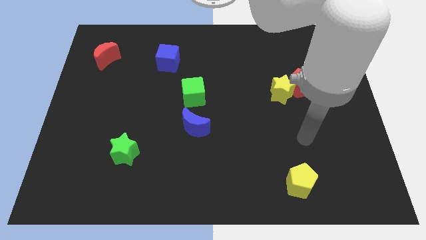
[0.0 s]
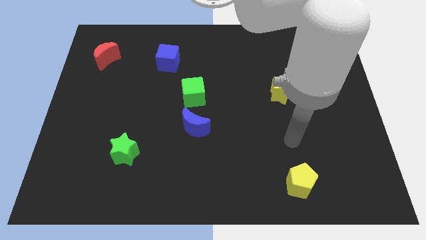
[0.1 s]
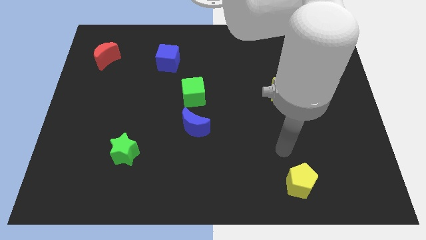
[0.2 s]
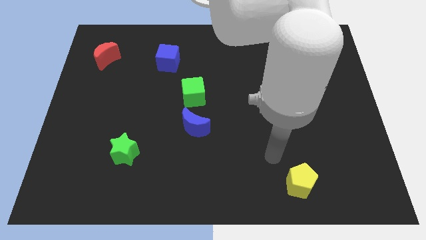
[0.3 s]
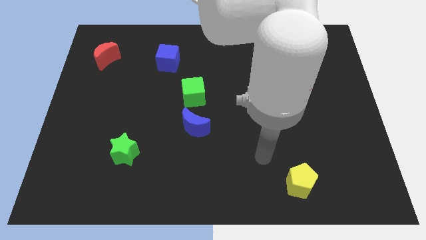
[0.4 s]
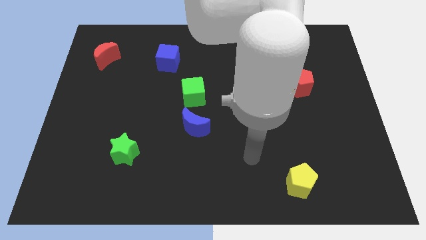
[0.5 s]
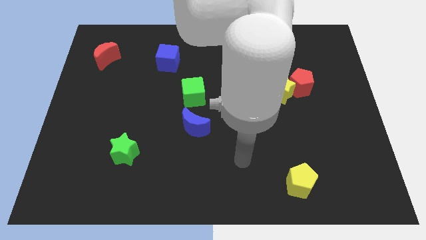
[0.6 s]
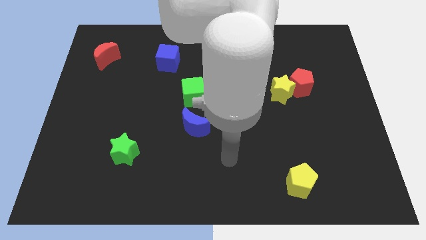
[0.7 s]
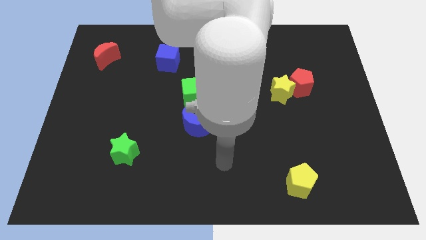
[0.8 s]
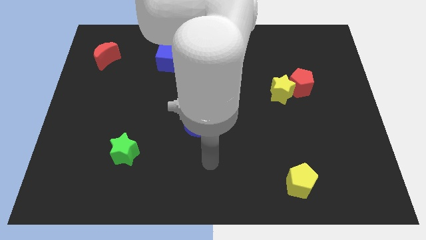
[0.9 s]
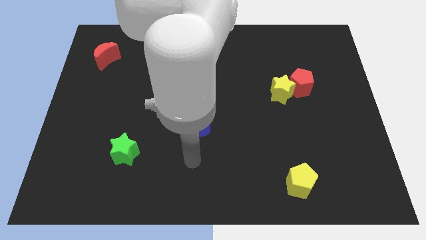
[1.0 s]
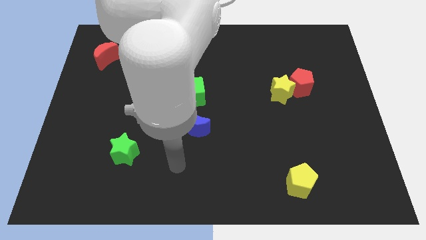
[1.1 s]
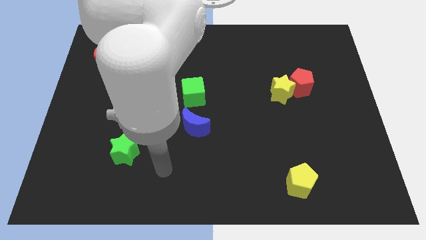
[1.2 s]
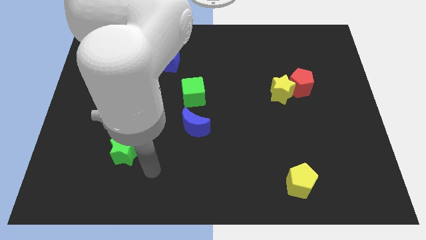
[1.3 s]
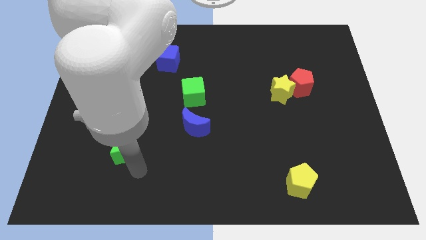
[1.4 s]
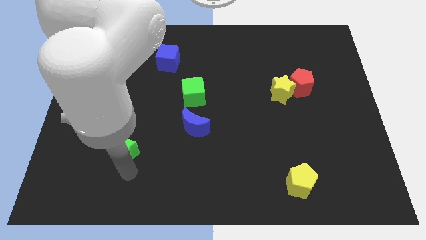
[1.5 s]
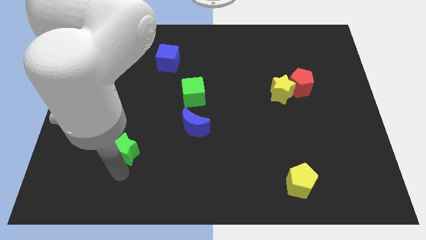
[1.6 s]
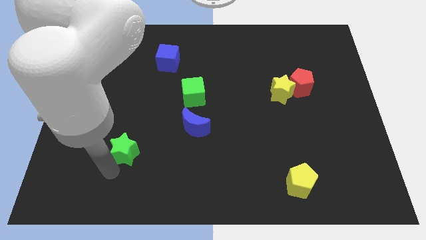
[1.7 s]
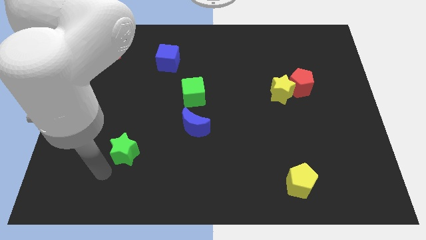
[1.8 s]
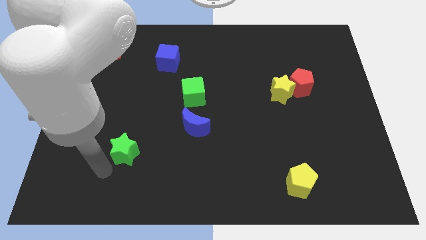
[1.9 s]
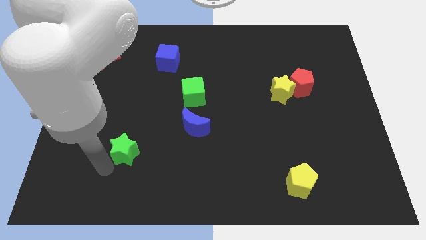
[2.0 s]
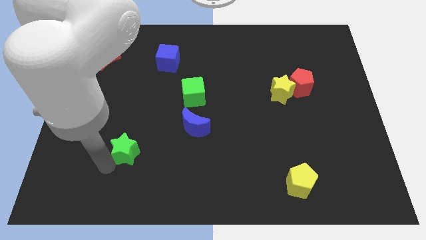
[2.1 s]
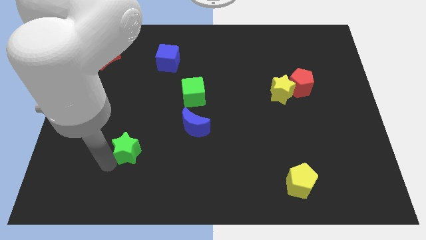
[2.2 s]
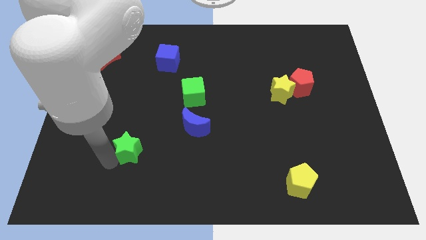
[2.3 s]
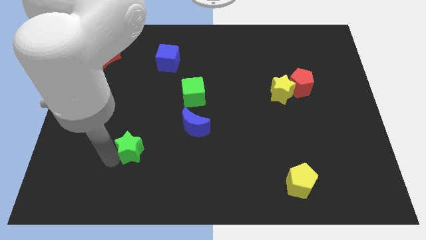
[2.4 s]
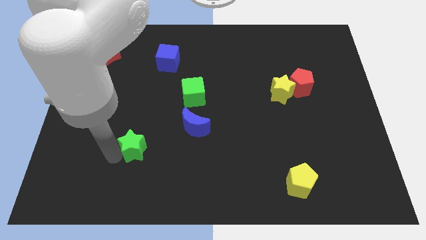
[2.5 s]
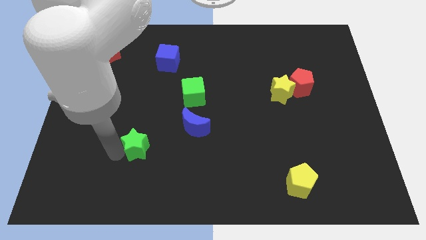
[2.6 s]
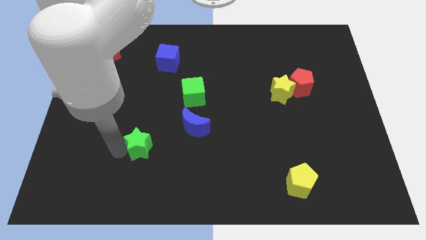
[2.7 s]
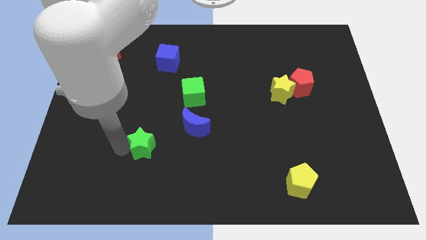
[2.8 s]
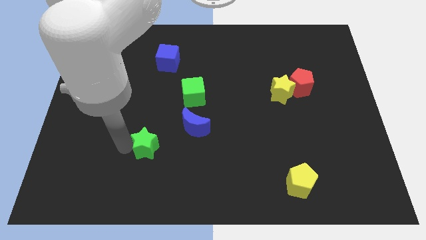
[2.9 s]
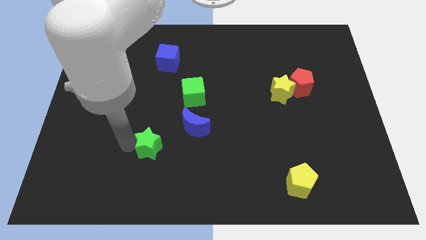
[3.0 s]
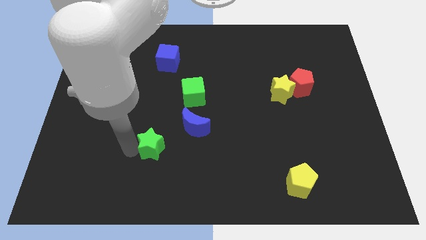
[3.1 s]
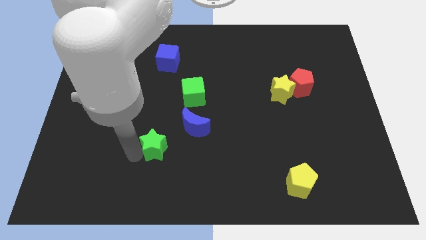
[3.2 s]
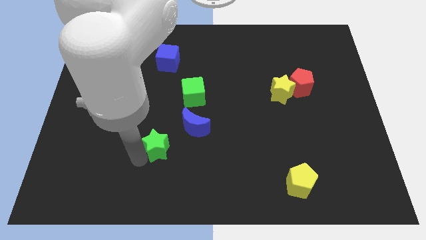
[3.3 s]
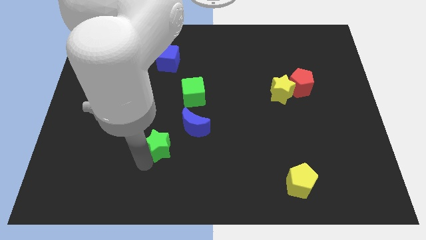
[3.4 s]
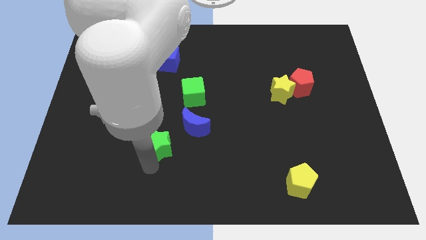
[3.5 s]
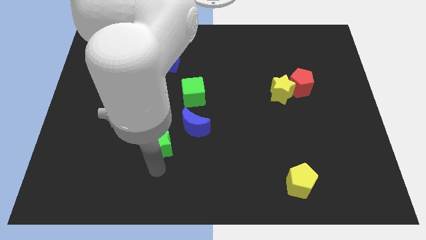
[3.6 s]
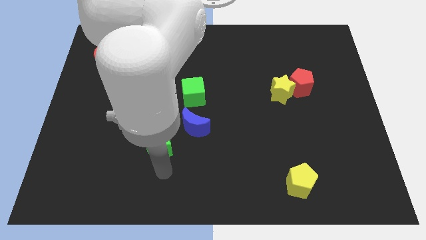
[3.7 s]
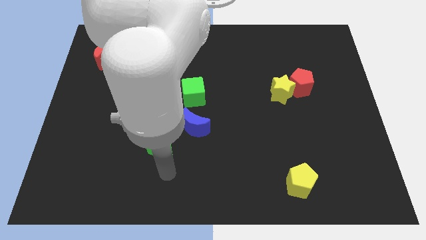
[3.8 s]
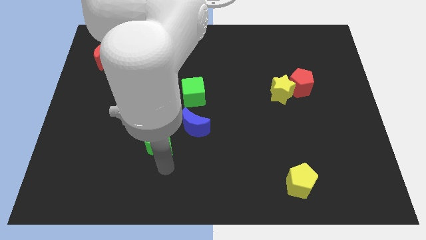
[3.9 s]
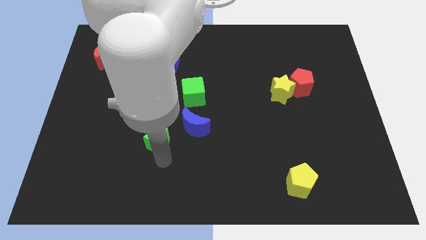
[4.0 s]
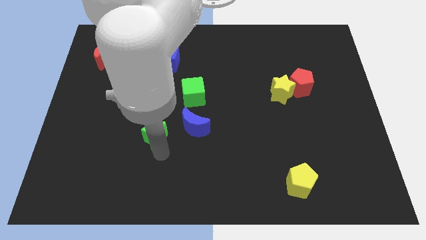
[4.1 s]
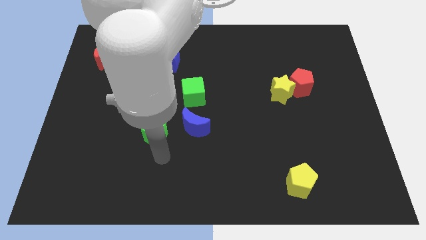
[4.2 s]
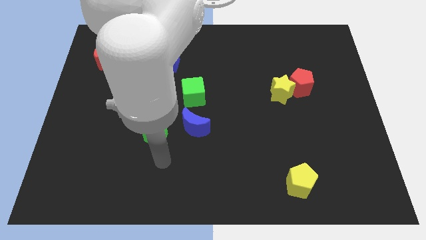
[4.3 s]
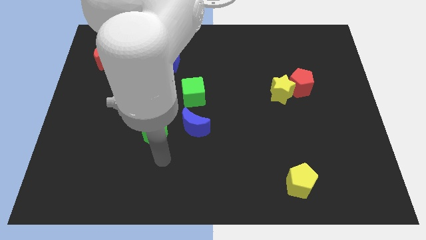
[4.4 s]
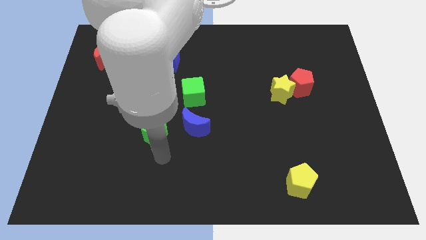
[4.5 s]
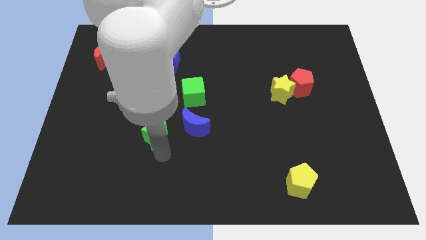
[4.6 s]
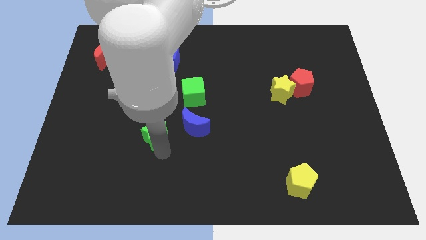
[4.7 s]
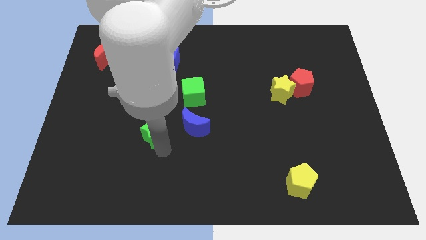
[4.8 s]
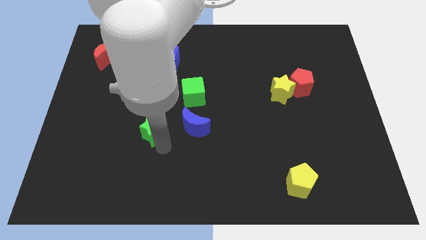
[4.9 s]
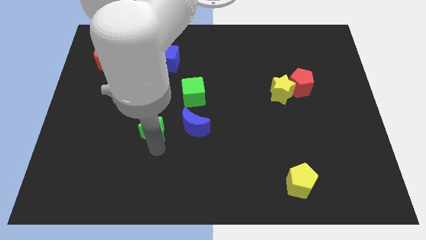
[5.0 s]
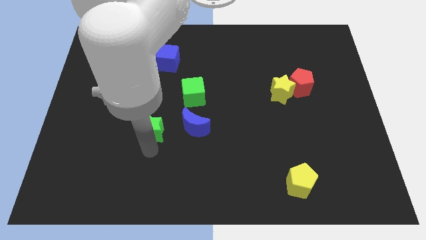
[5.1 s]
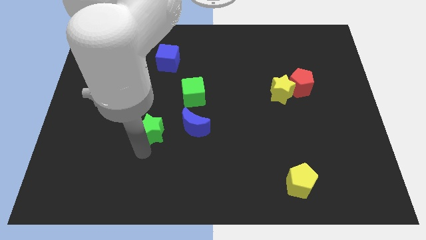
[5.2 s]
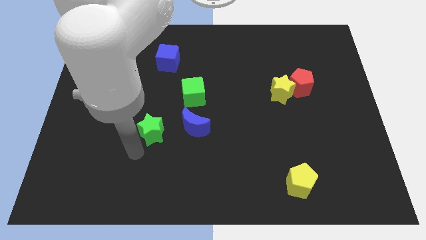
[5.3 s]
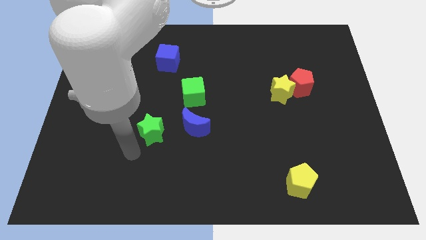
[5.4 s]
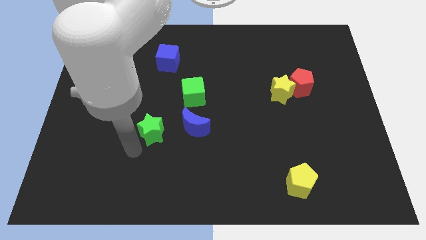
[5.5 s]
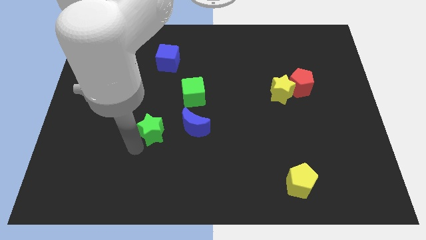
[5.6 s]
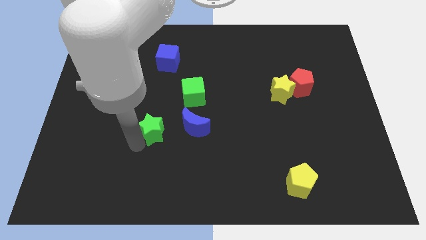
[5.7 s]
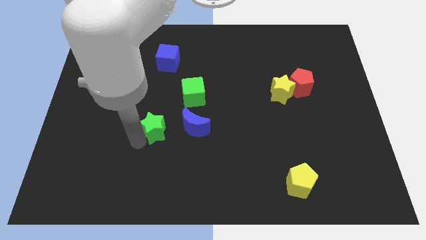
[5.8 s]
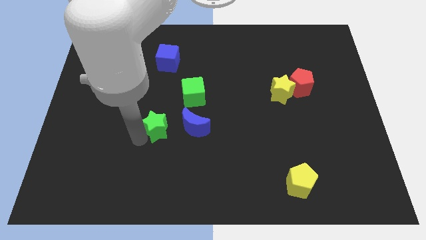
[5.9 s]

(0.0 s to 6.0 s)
put the green star diagonally down and to the left of the green cube

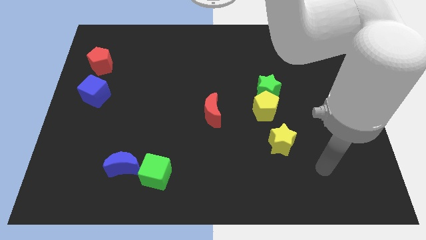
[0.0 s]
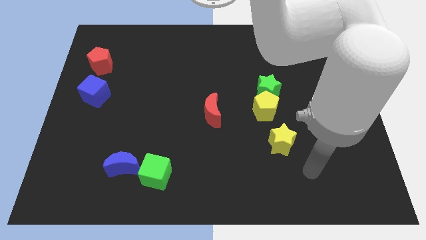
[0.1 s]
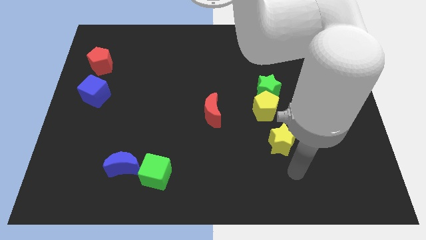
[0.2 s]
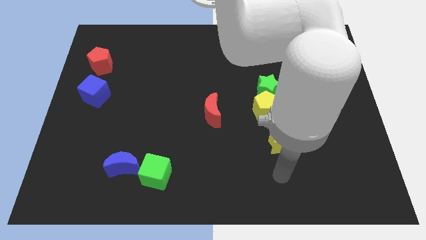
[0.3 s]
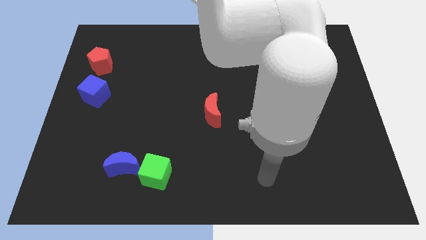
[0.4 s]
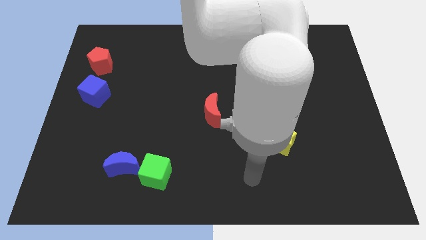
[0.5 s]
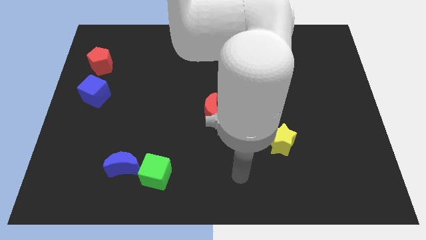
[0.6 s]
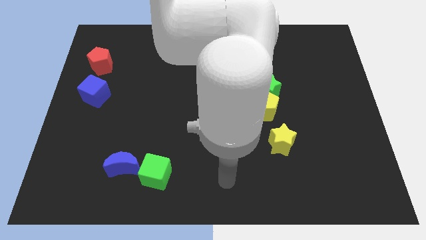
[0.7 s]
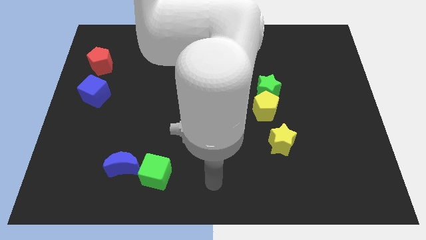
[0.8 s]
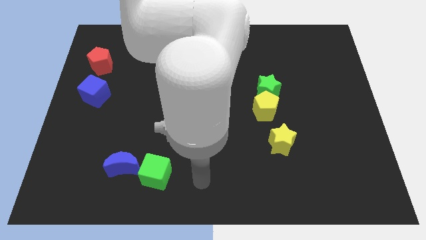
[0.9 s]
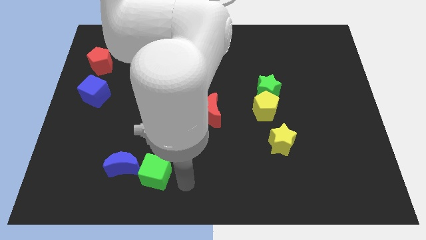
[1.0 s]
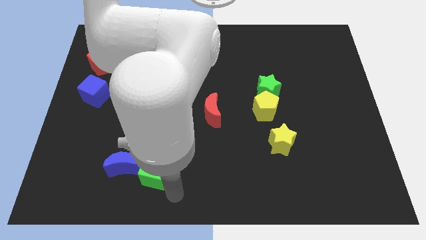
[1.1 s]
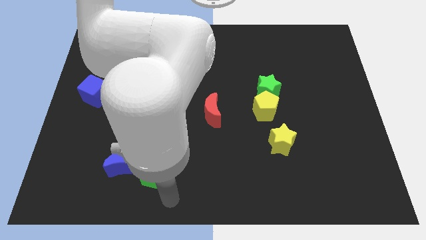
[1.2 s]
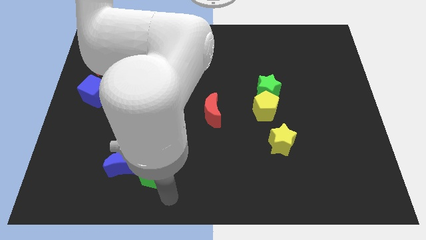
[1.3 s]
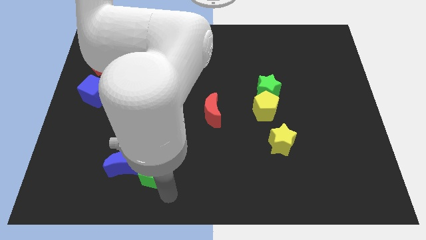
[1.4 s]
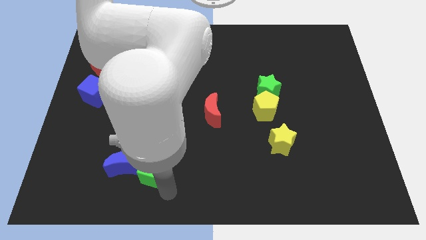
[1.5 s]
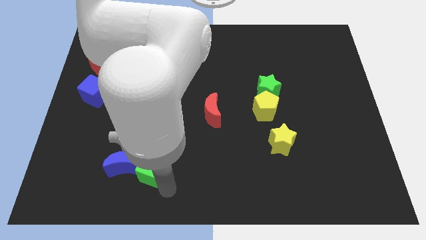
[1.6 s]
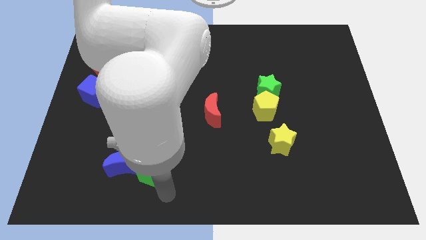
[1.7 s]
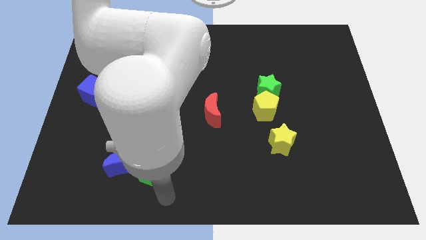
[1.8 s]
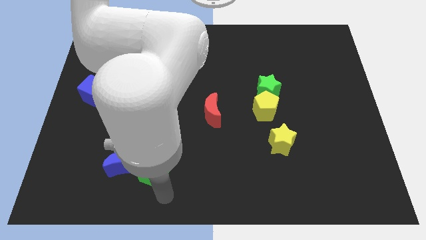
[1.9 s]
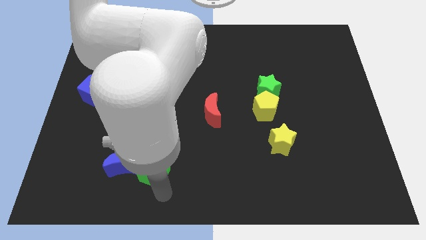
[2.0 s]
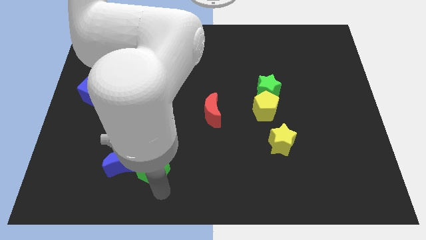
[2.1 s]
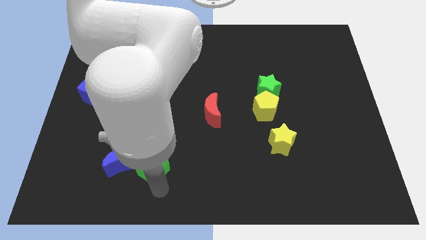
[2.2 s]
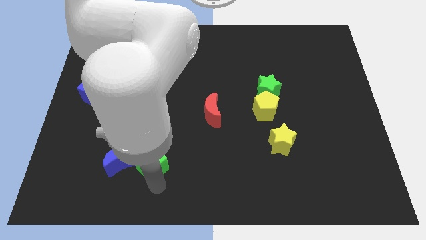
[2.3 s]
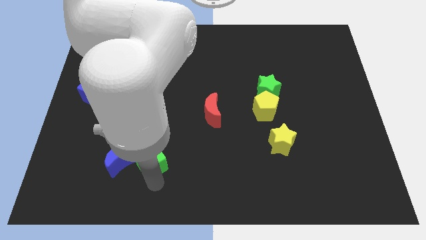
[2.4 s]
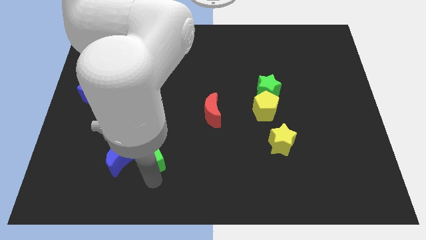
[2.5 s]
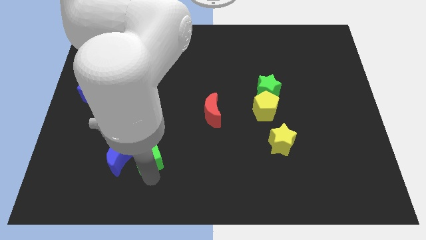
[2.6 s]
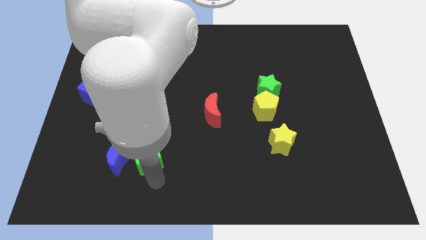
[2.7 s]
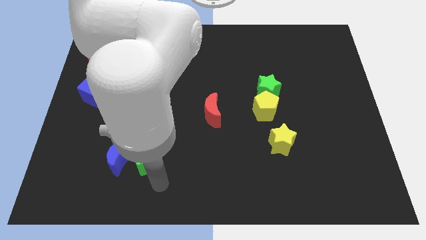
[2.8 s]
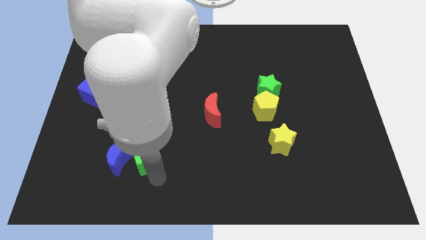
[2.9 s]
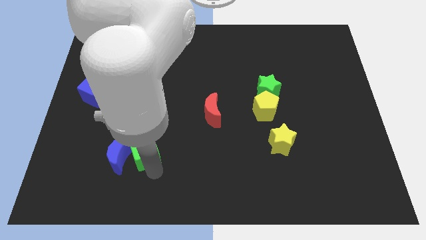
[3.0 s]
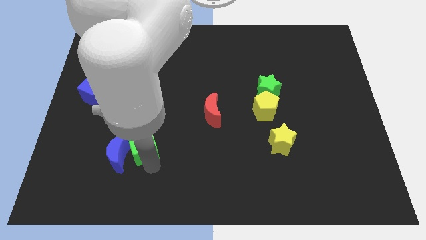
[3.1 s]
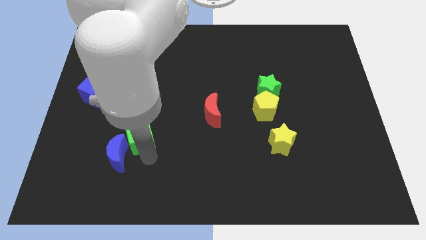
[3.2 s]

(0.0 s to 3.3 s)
move the green cube to the top side of the blue moon
